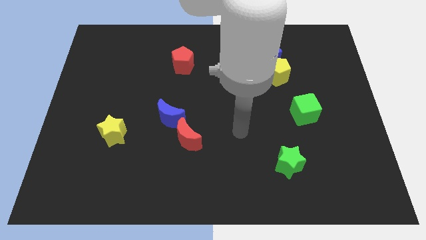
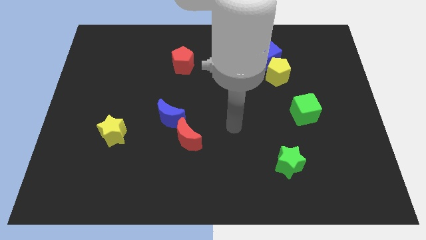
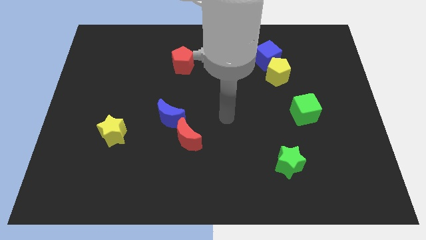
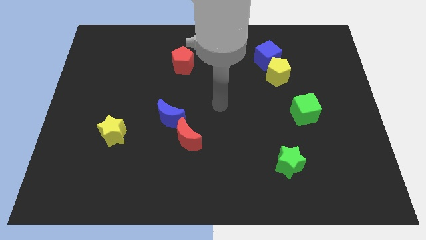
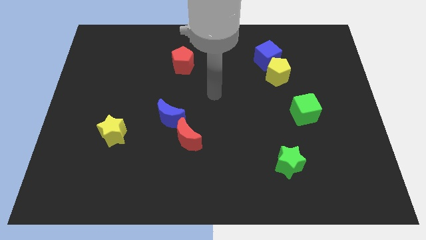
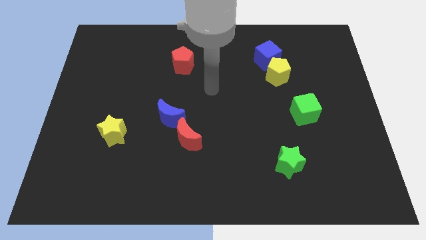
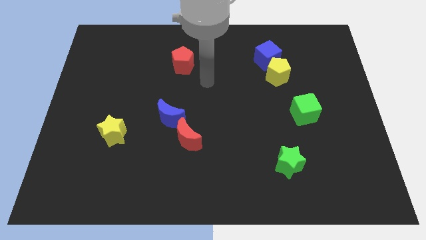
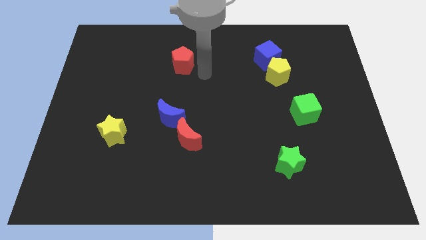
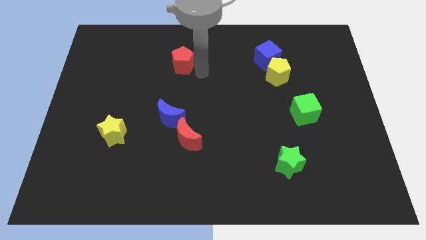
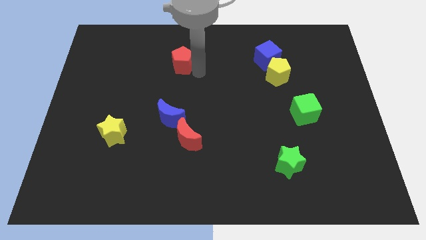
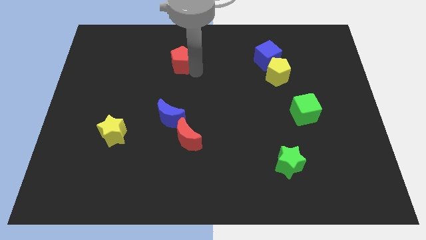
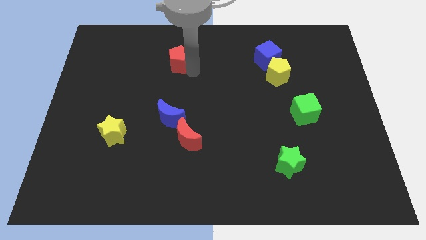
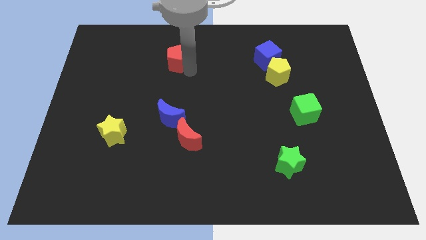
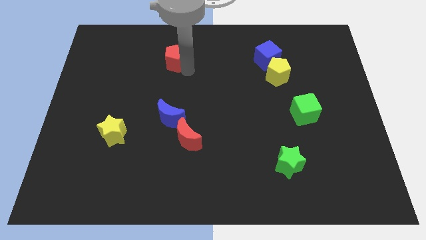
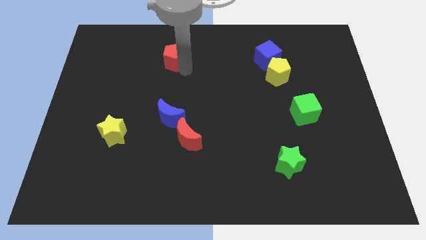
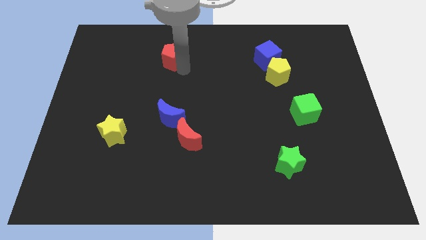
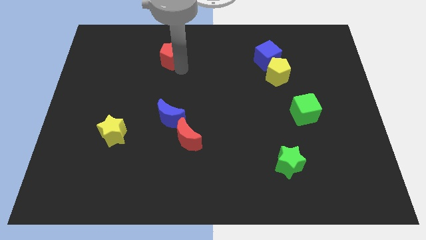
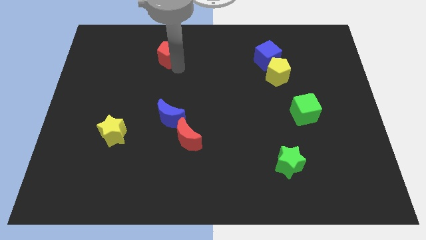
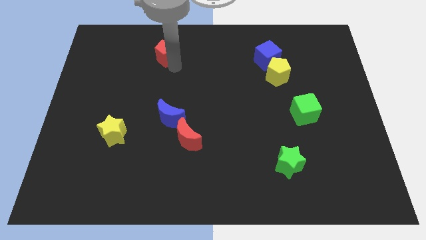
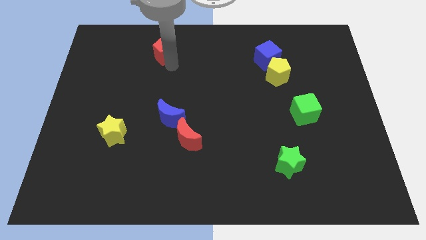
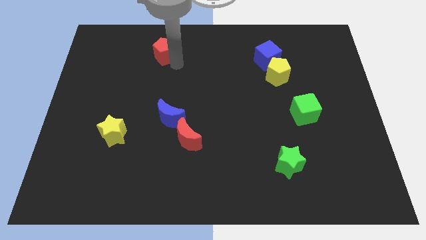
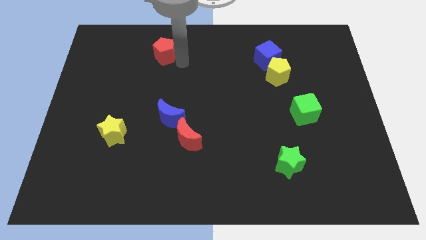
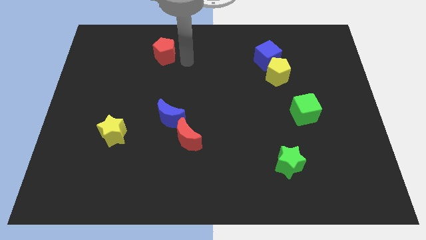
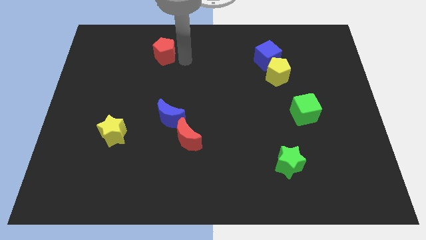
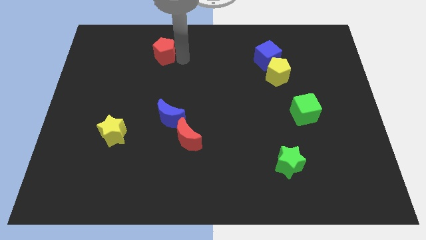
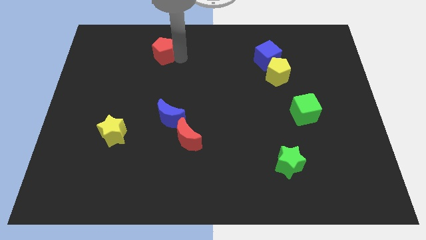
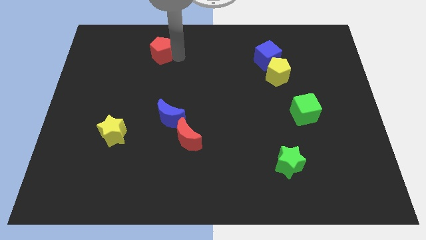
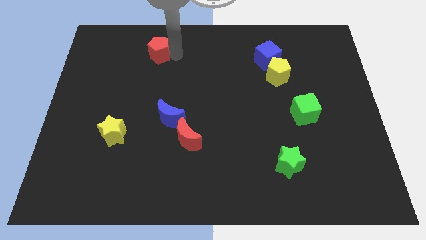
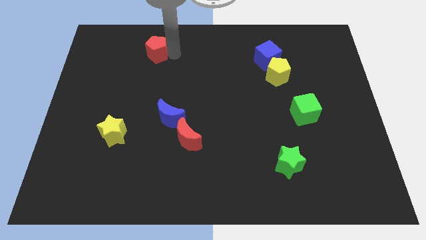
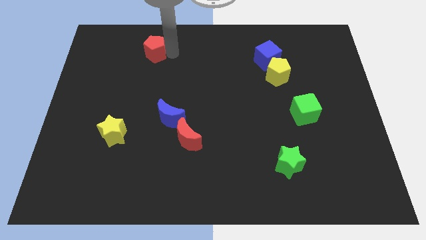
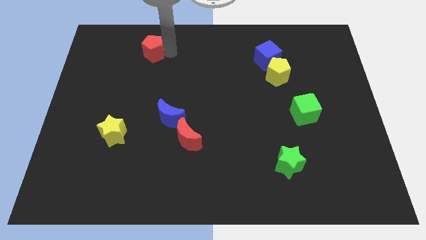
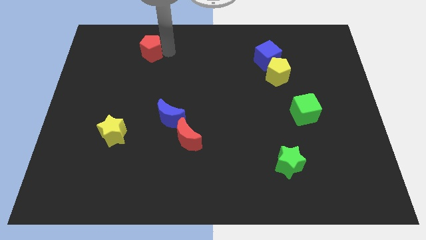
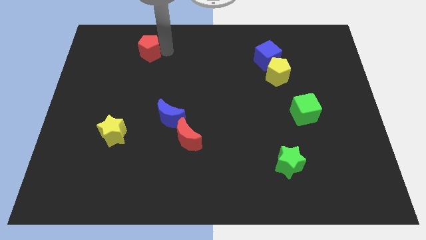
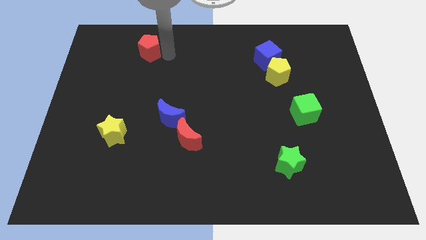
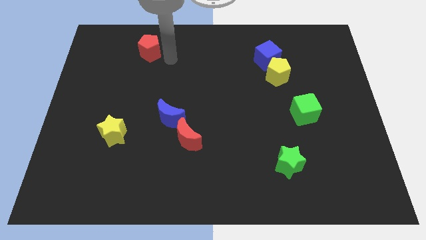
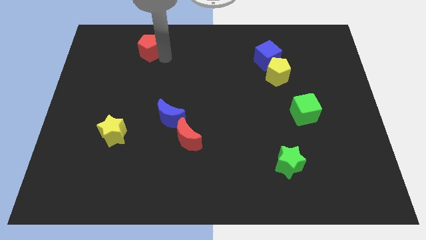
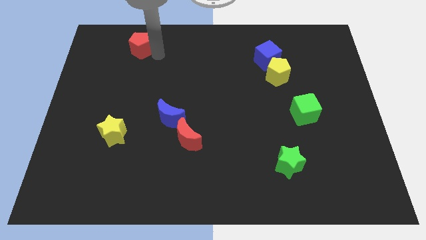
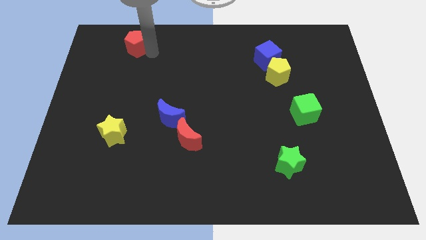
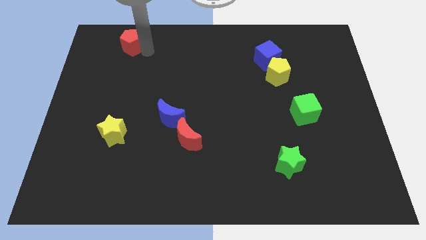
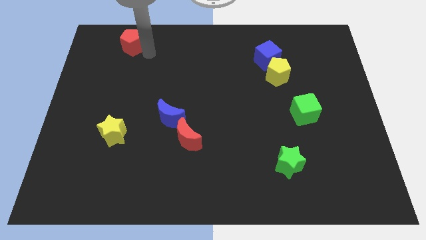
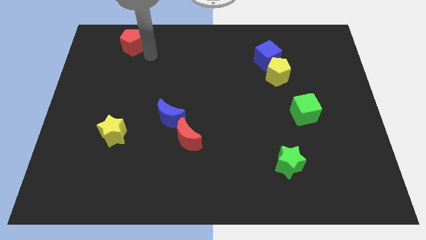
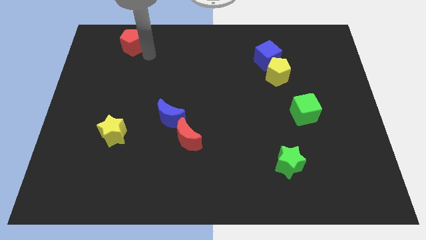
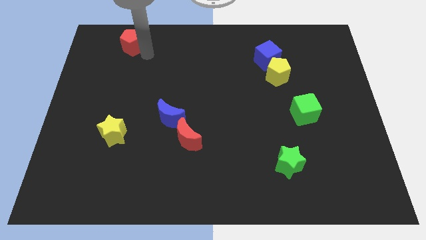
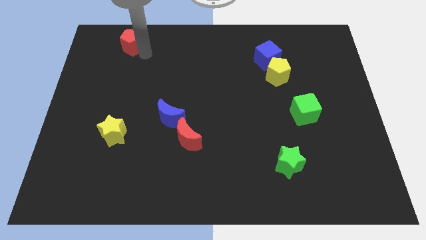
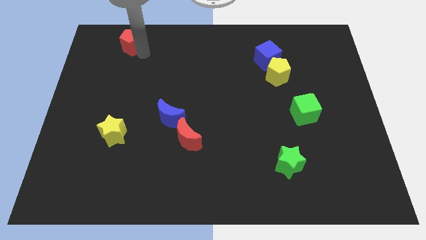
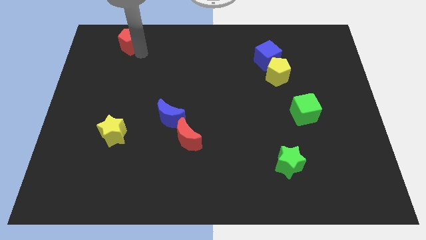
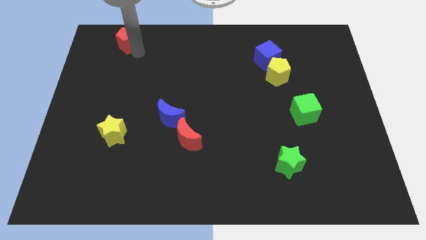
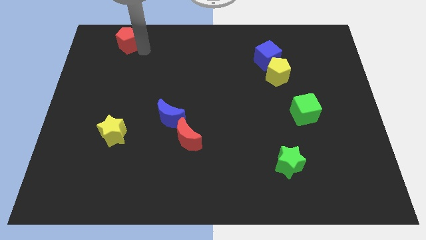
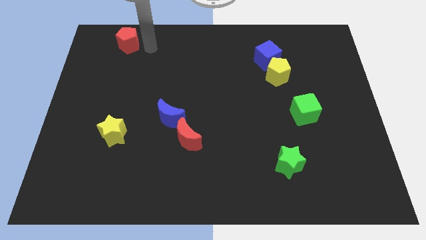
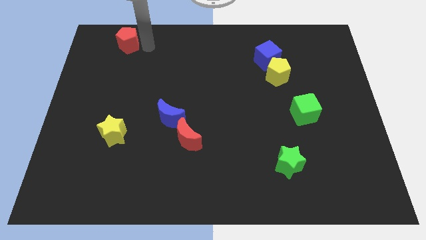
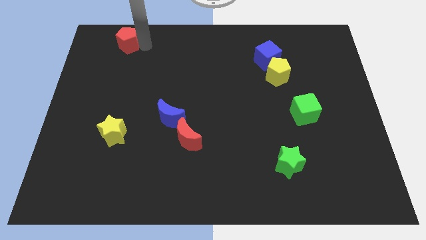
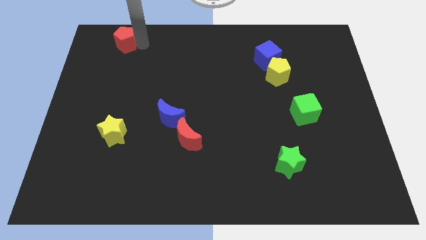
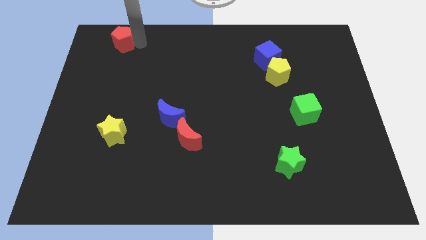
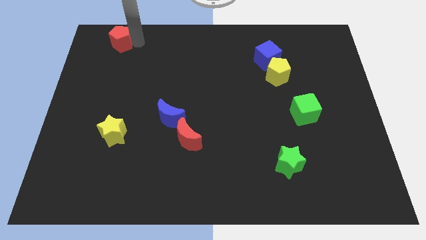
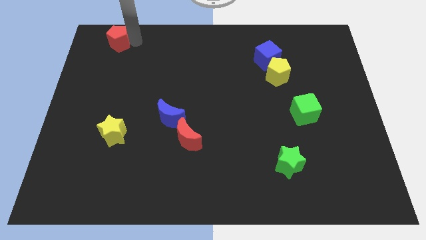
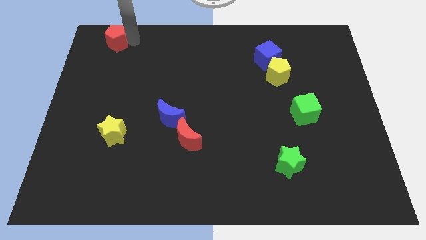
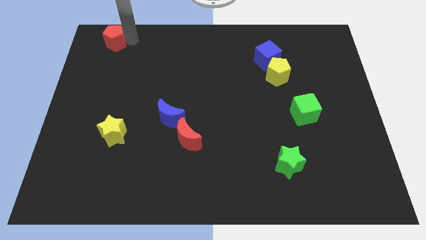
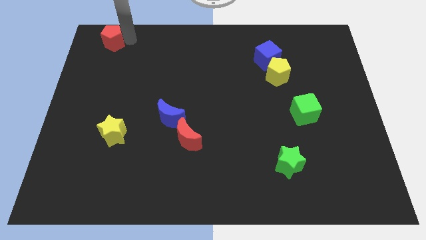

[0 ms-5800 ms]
push the red pentagon to the top left corner

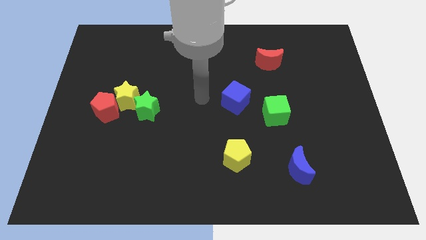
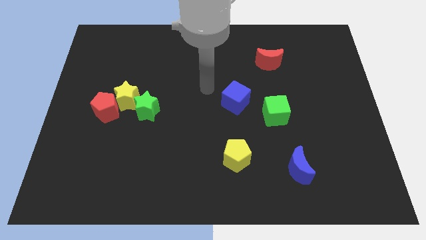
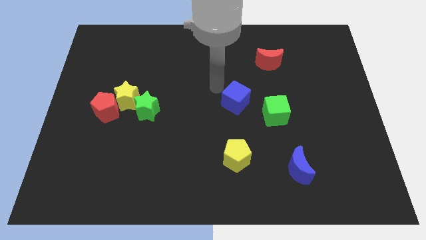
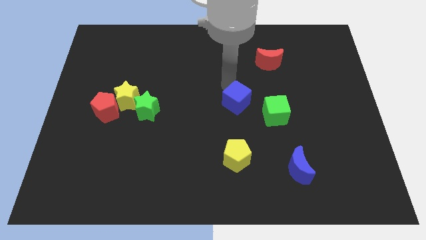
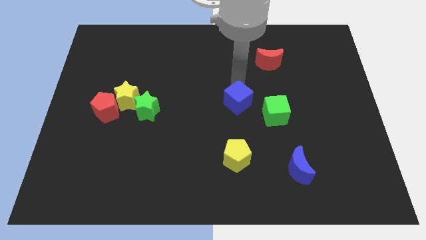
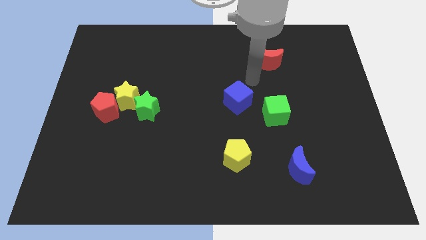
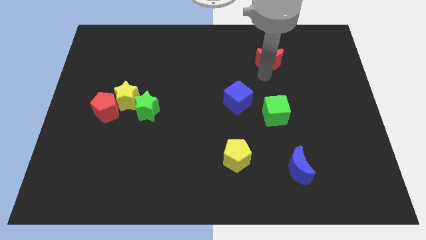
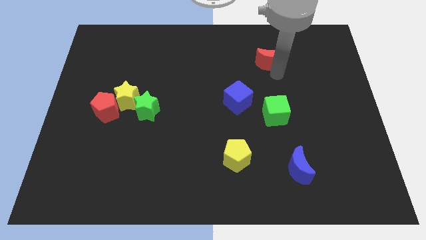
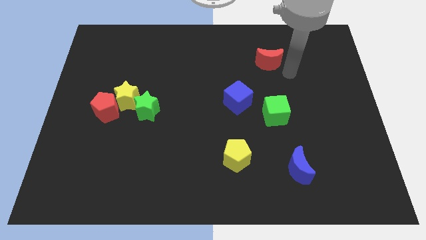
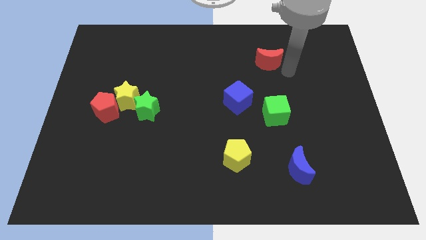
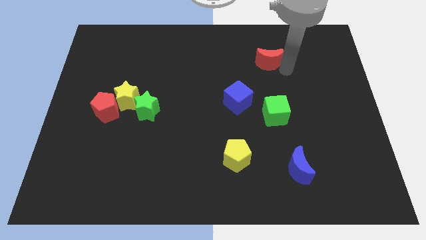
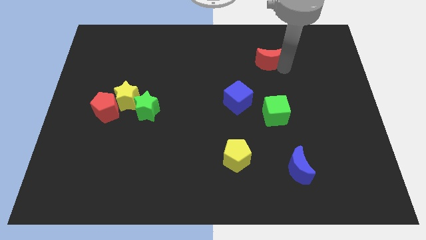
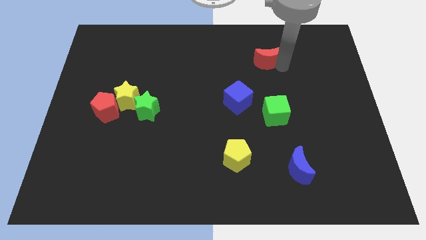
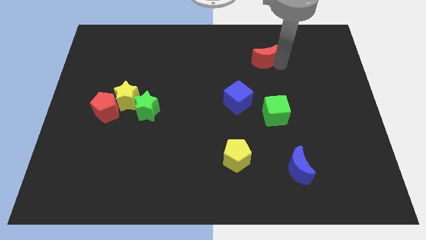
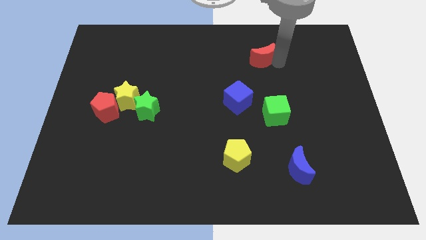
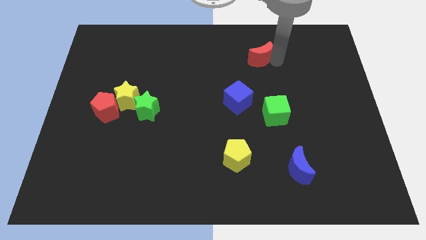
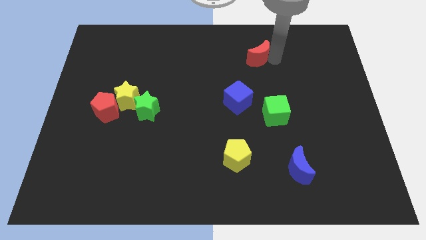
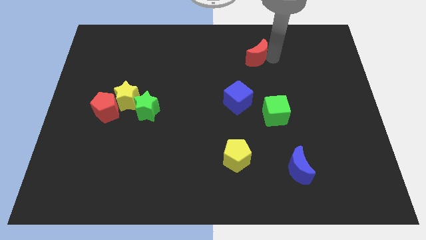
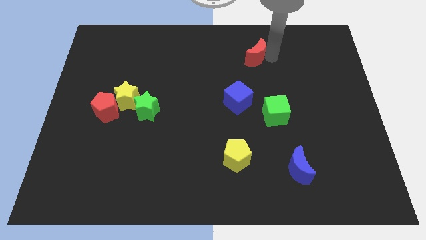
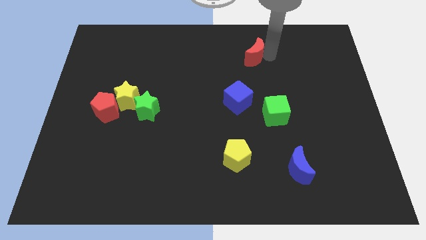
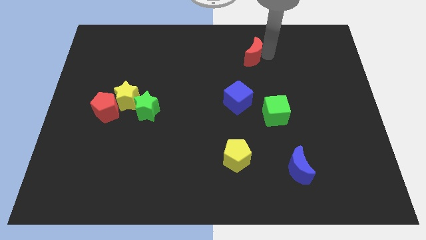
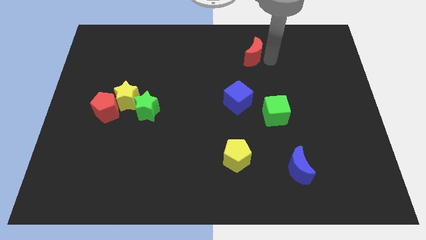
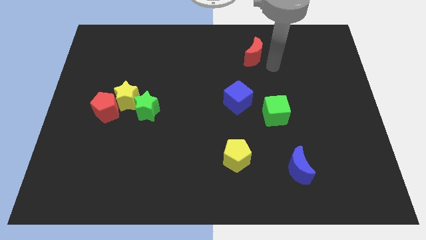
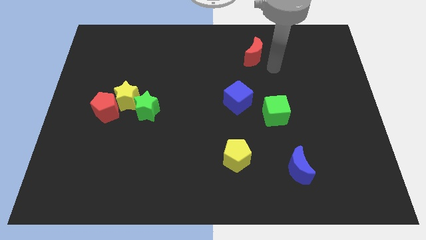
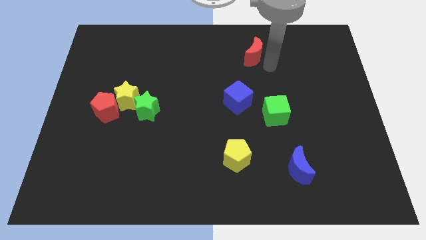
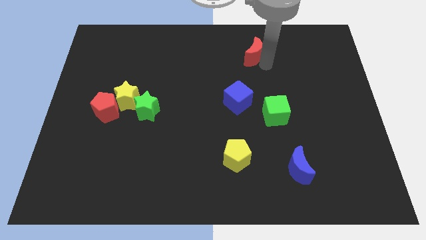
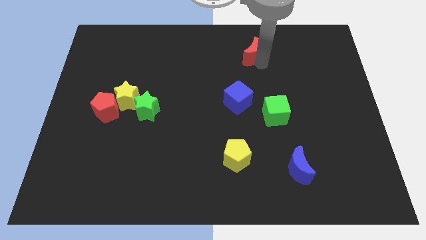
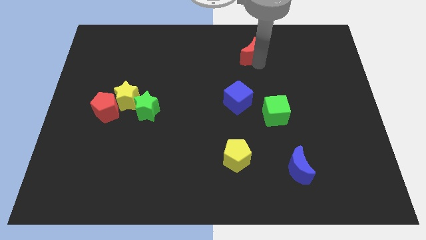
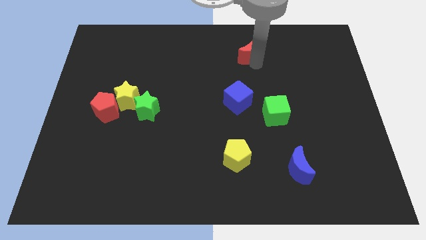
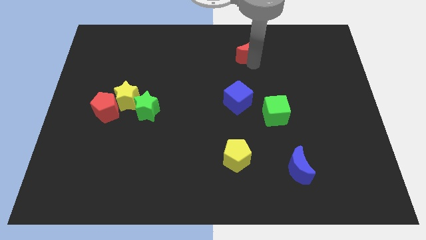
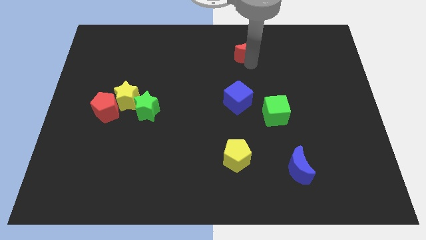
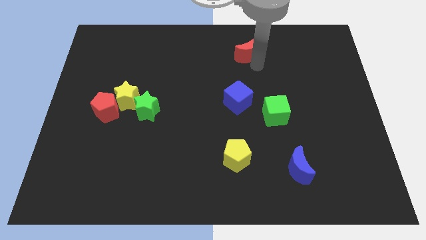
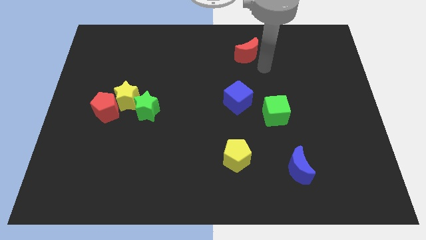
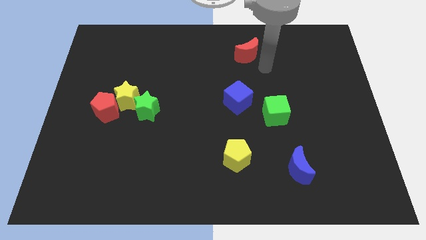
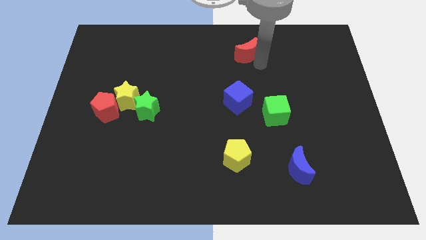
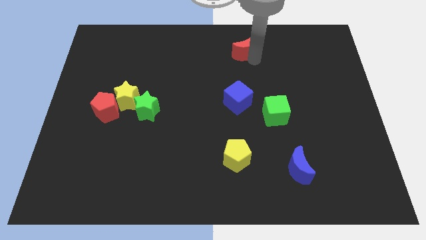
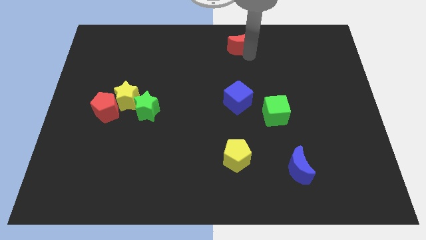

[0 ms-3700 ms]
push the red moon to the top
